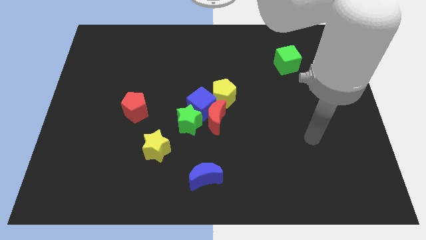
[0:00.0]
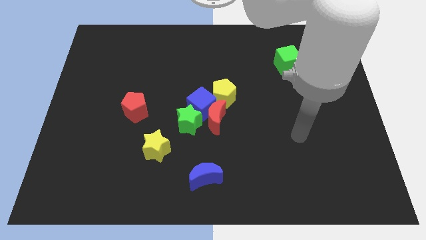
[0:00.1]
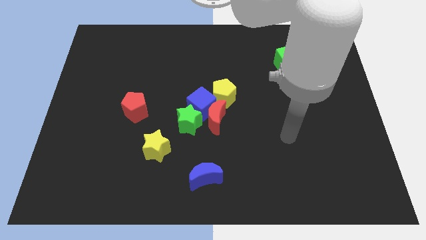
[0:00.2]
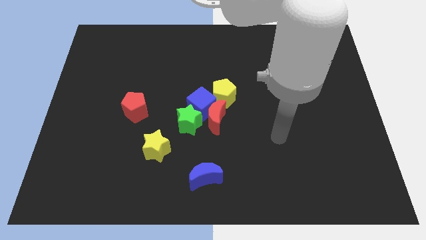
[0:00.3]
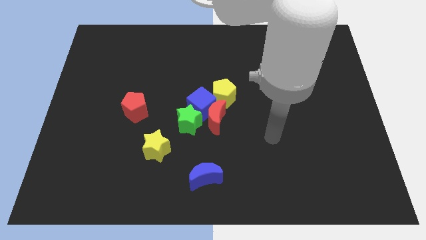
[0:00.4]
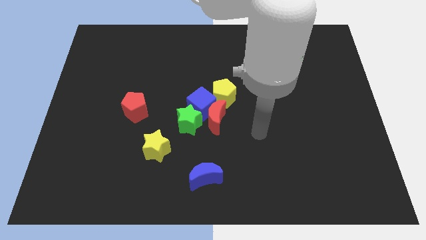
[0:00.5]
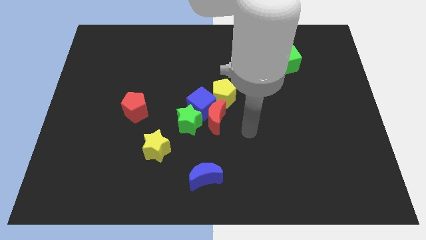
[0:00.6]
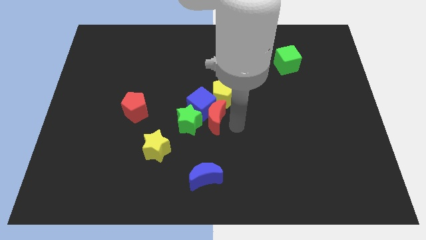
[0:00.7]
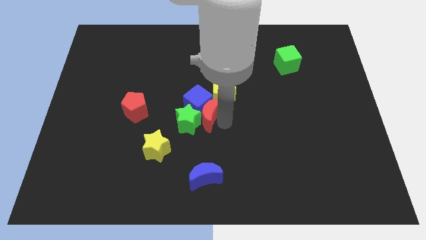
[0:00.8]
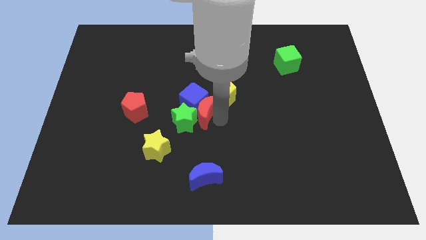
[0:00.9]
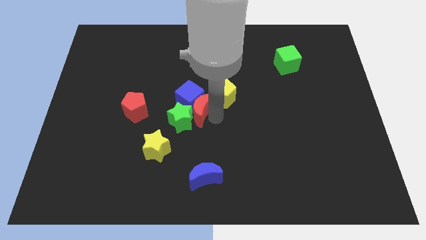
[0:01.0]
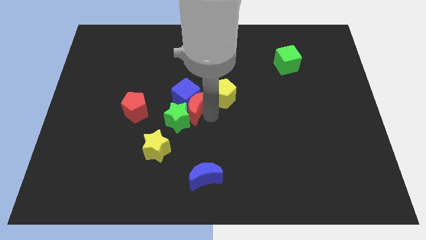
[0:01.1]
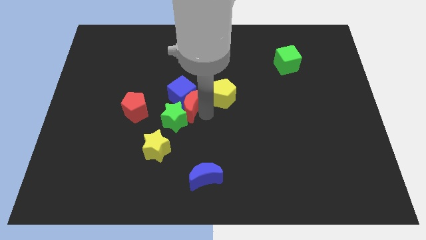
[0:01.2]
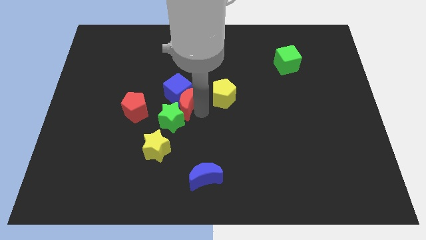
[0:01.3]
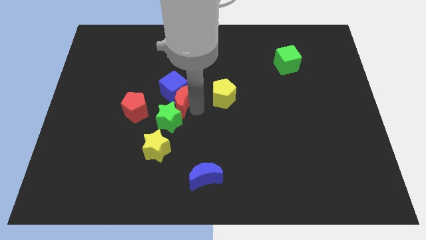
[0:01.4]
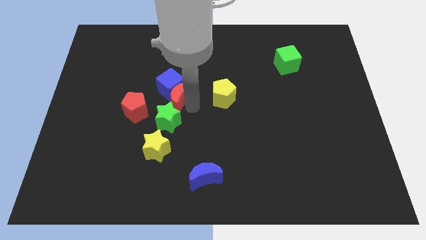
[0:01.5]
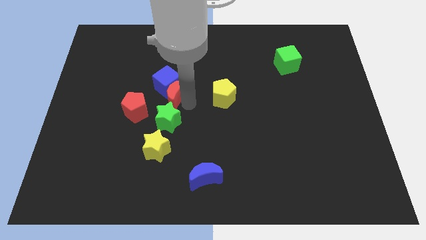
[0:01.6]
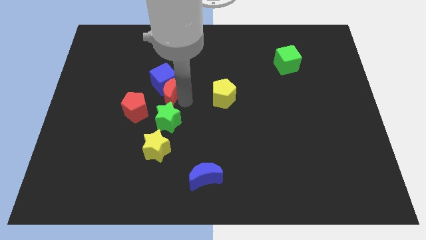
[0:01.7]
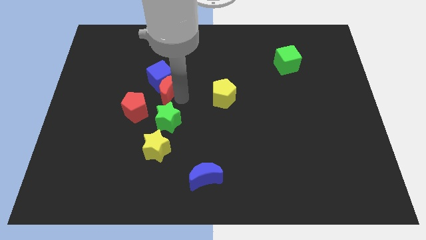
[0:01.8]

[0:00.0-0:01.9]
separate the blue cube from the red moon, green star, and yellow pentagon

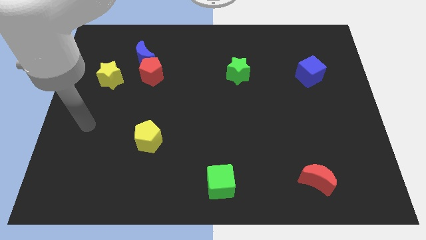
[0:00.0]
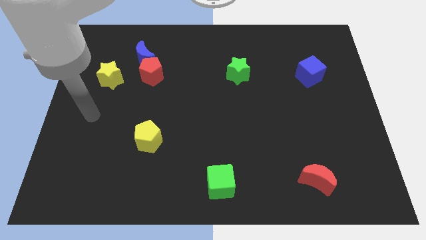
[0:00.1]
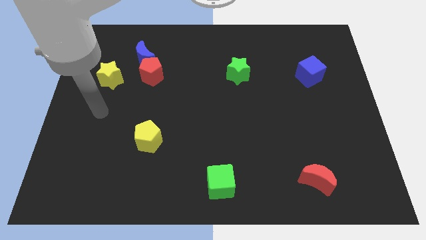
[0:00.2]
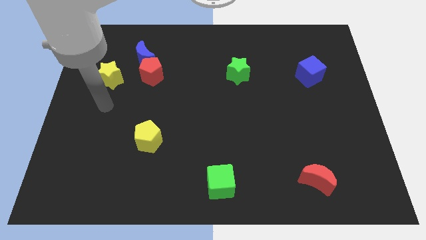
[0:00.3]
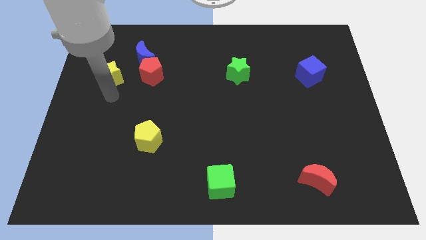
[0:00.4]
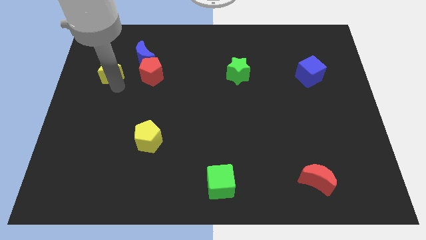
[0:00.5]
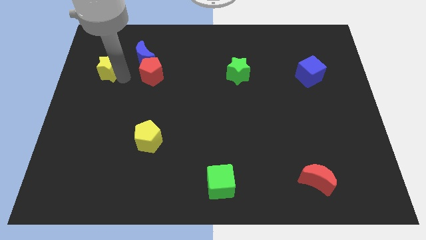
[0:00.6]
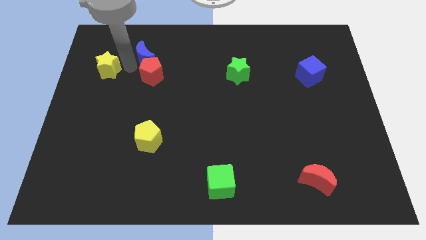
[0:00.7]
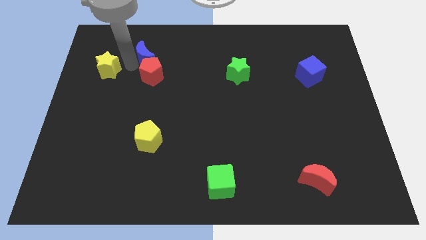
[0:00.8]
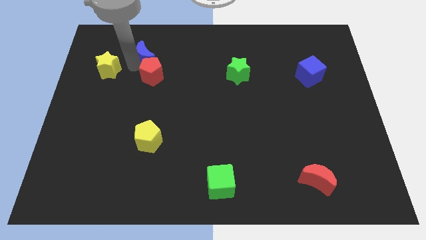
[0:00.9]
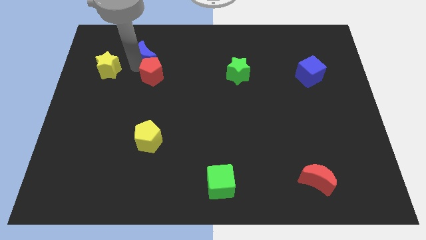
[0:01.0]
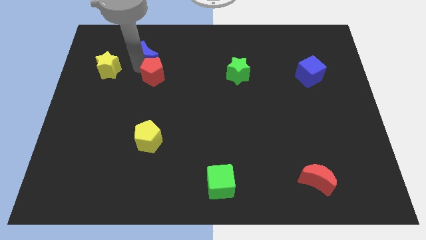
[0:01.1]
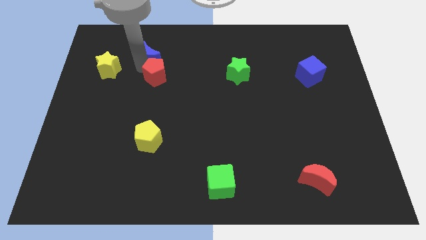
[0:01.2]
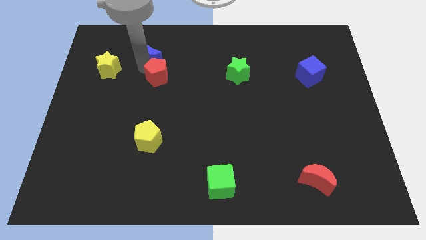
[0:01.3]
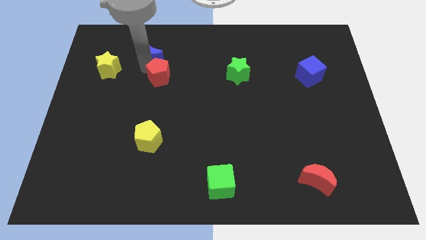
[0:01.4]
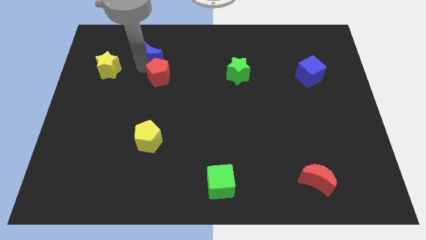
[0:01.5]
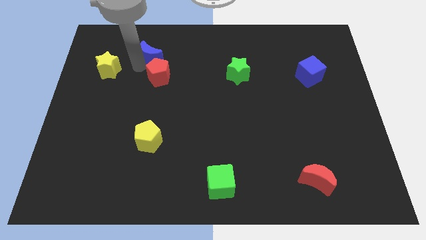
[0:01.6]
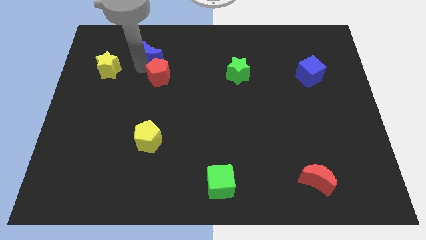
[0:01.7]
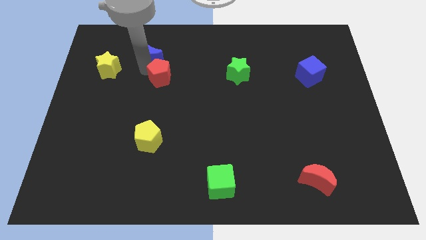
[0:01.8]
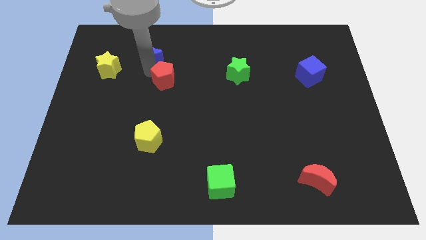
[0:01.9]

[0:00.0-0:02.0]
separate the red pentagon from the blue moon and yellow star

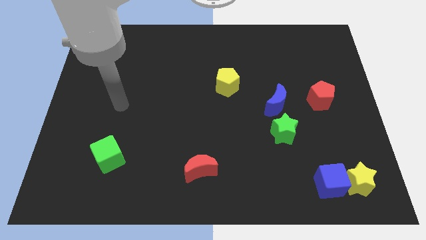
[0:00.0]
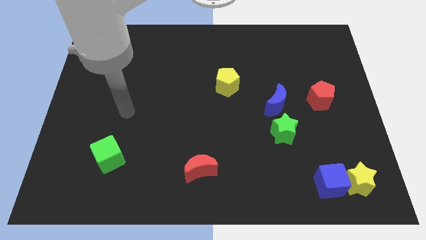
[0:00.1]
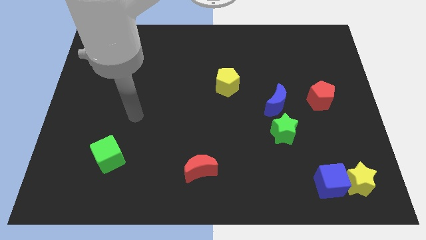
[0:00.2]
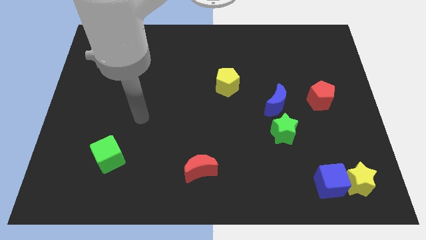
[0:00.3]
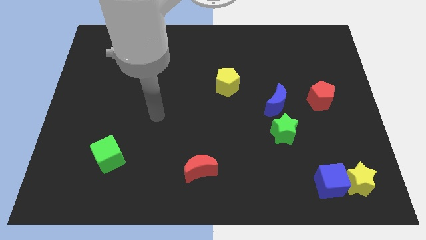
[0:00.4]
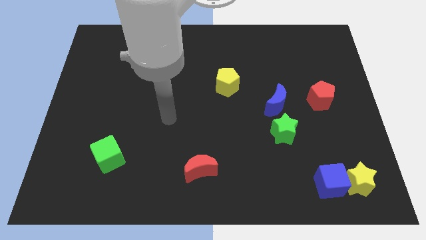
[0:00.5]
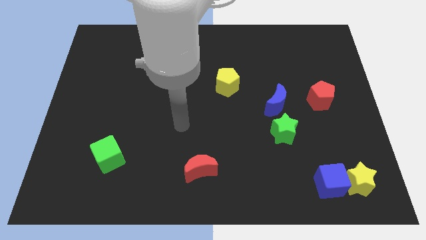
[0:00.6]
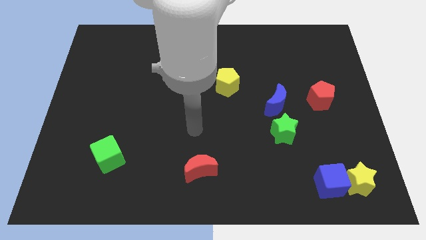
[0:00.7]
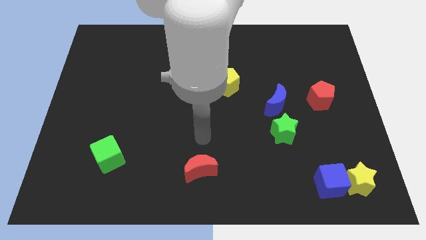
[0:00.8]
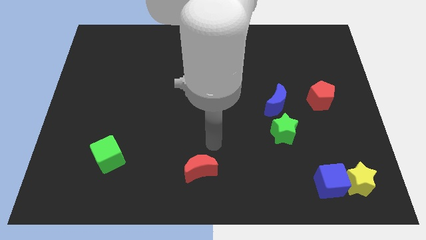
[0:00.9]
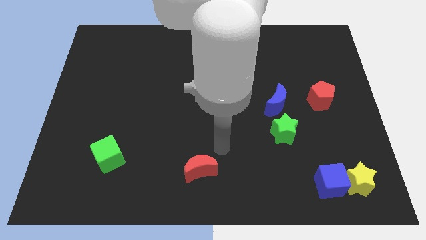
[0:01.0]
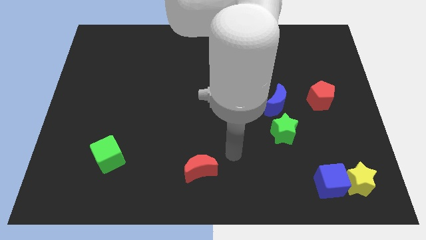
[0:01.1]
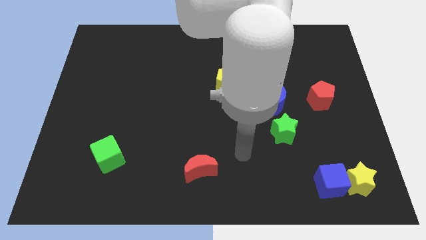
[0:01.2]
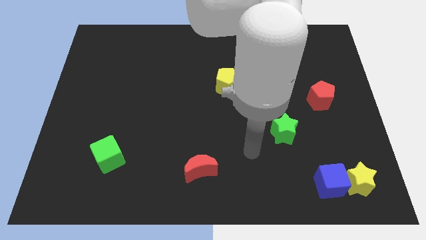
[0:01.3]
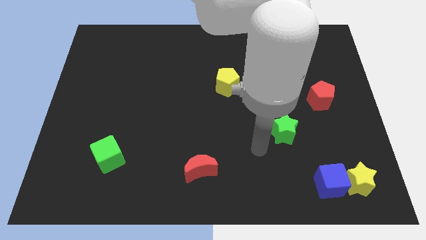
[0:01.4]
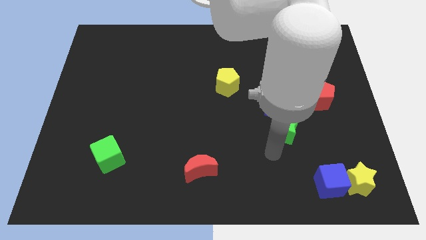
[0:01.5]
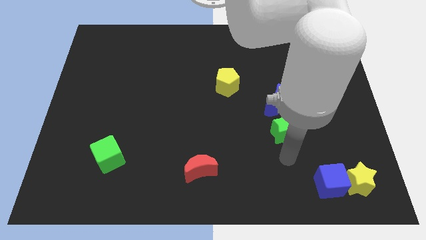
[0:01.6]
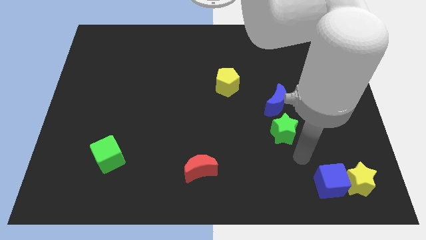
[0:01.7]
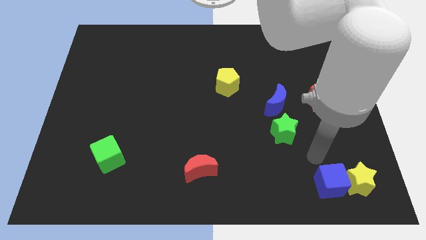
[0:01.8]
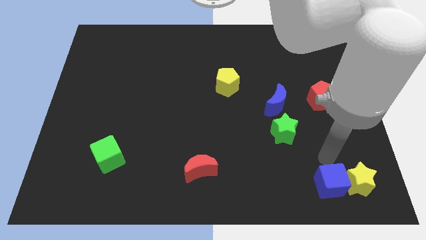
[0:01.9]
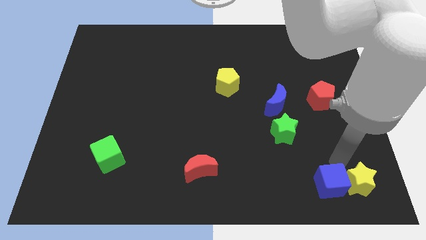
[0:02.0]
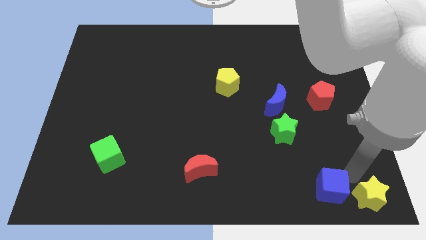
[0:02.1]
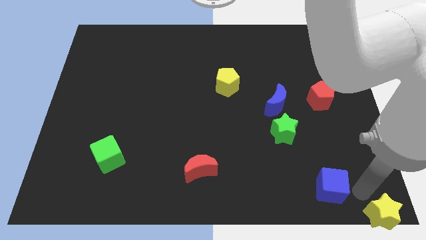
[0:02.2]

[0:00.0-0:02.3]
move the blue cube away from the yellow star

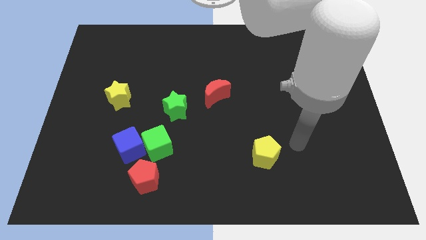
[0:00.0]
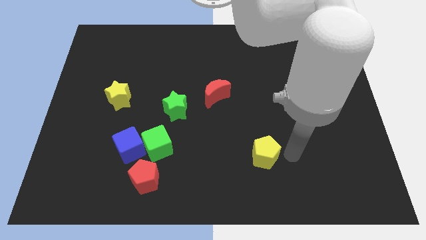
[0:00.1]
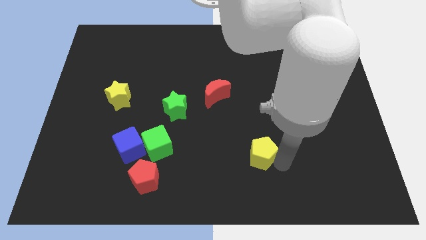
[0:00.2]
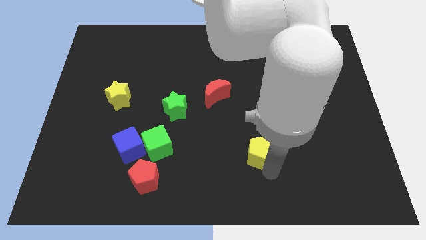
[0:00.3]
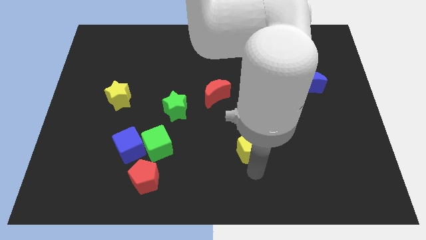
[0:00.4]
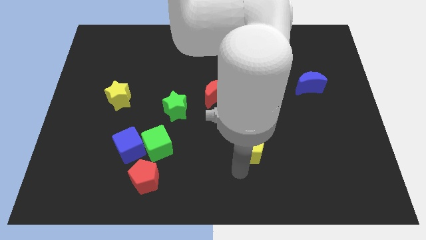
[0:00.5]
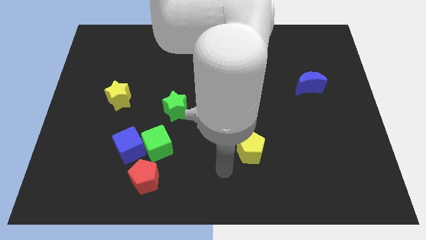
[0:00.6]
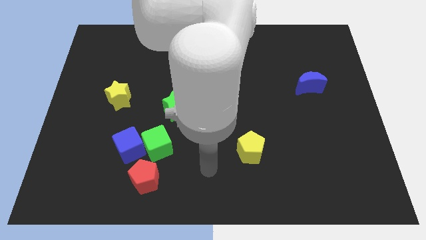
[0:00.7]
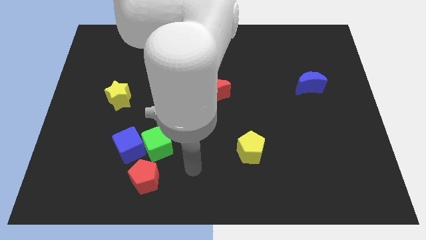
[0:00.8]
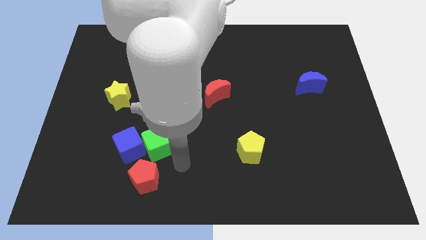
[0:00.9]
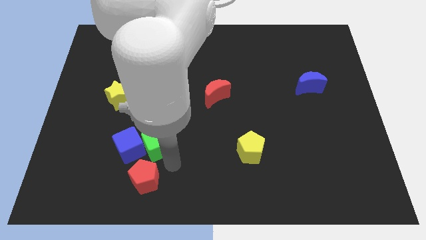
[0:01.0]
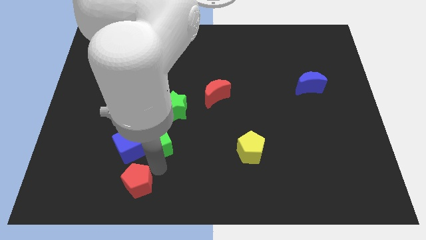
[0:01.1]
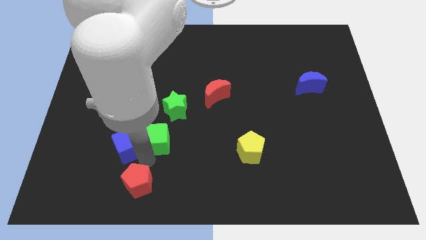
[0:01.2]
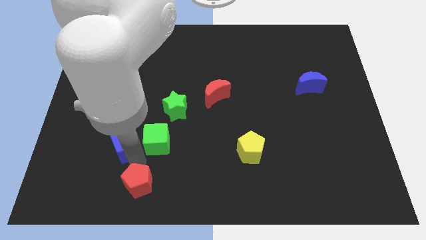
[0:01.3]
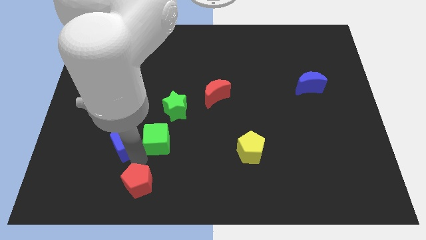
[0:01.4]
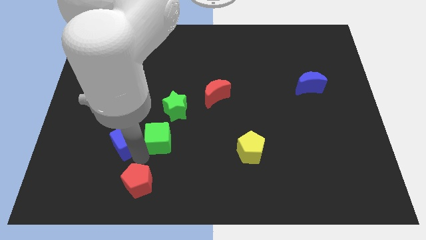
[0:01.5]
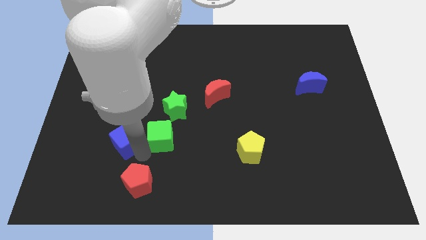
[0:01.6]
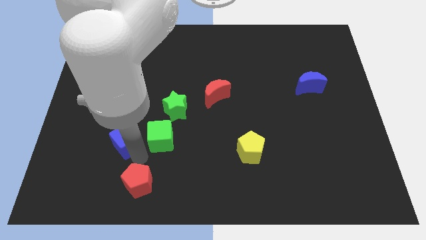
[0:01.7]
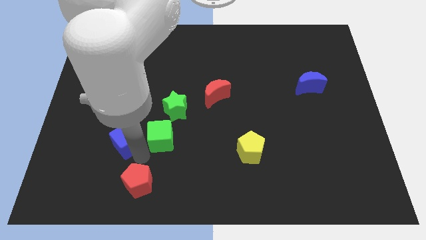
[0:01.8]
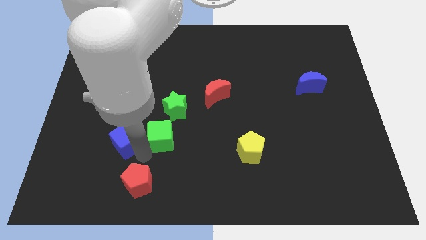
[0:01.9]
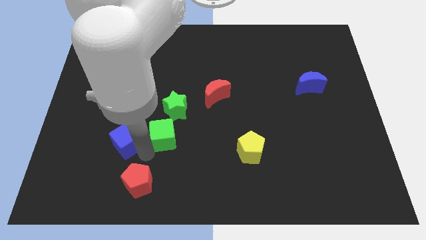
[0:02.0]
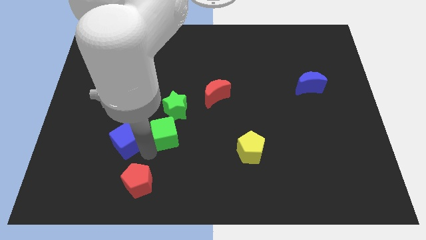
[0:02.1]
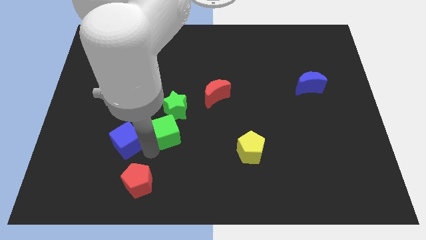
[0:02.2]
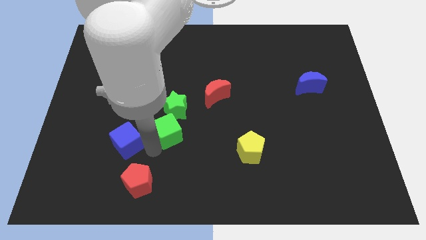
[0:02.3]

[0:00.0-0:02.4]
separate the green cube from the blue cube and red pentagon

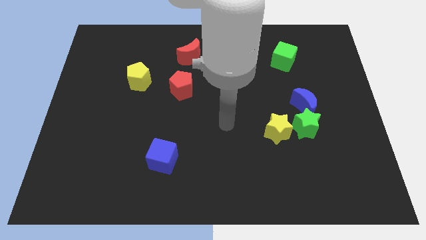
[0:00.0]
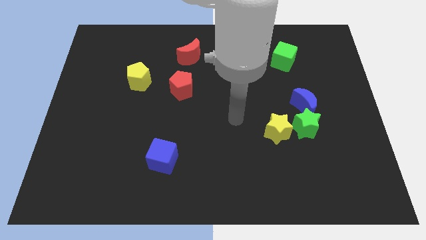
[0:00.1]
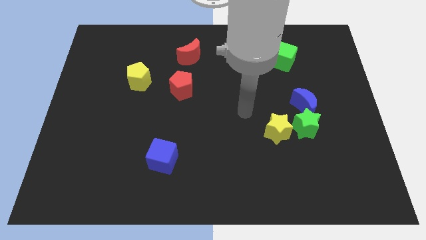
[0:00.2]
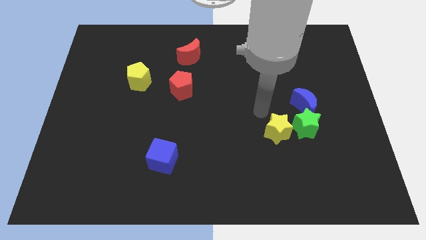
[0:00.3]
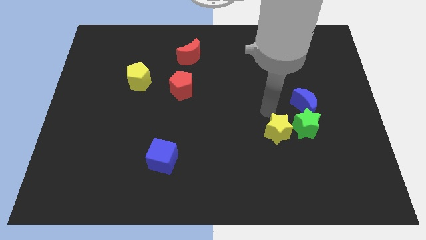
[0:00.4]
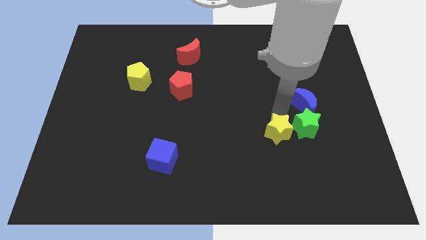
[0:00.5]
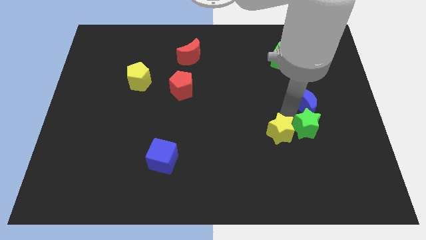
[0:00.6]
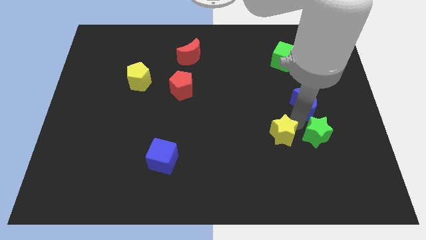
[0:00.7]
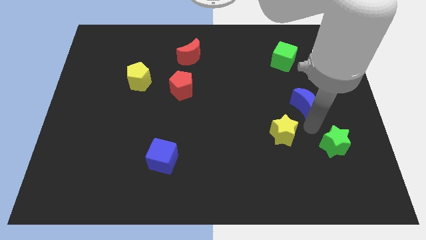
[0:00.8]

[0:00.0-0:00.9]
move the blue moon away from the green star
